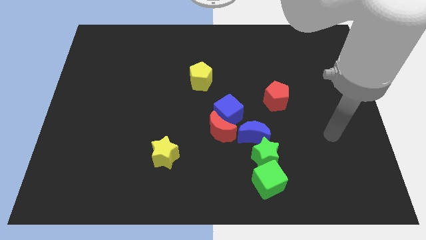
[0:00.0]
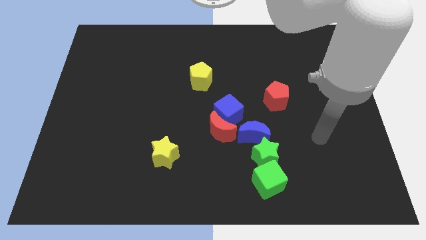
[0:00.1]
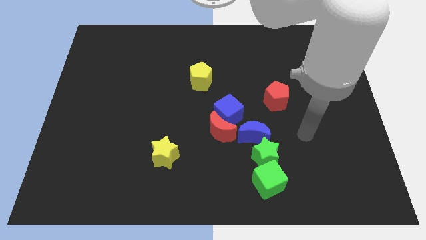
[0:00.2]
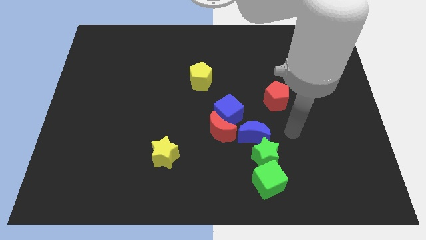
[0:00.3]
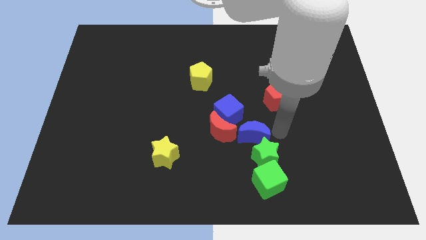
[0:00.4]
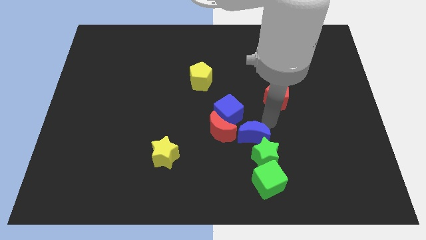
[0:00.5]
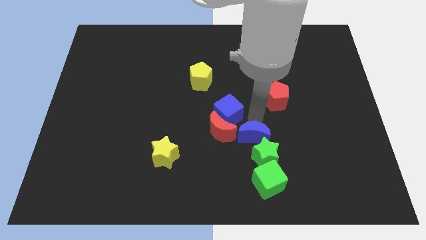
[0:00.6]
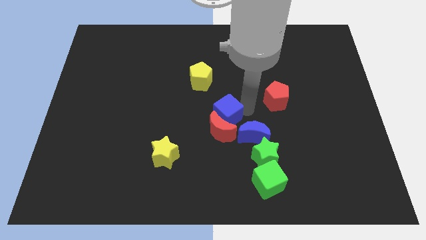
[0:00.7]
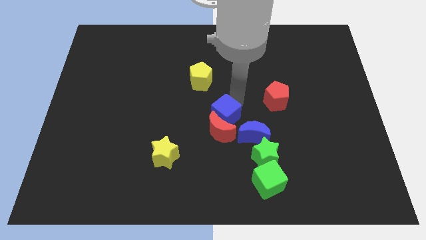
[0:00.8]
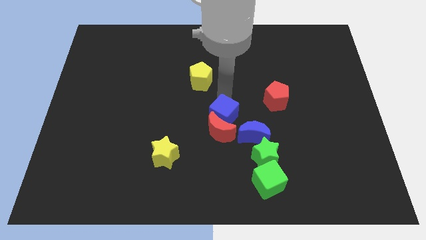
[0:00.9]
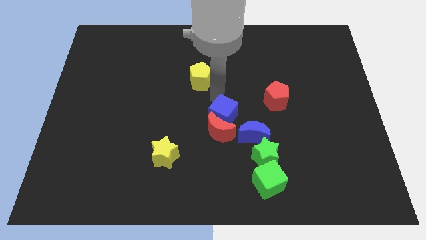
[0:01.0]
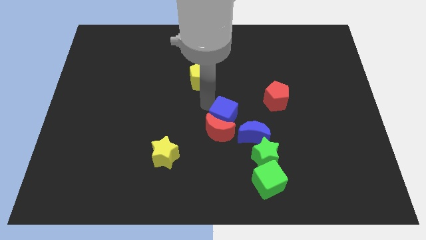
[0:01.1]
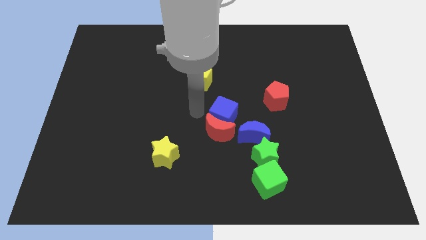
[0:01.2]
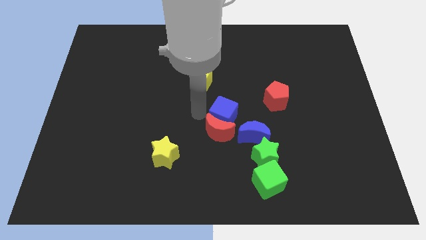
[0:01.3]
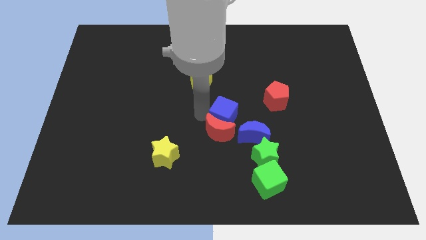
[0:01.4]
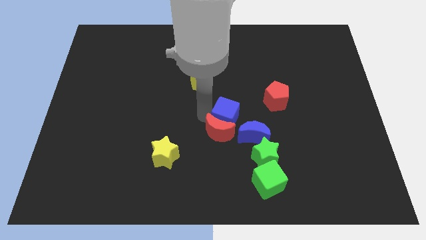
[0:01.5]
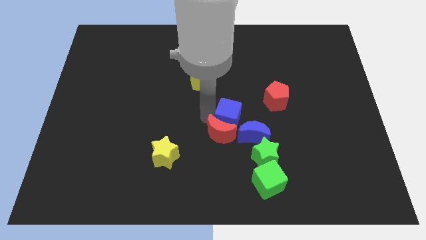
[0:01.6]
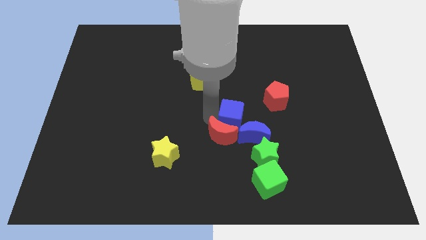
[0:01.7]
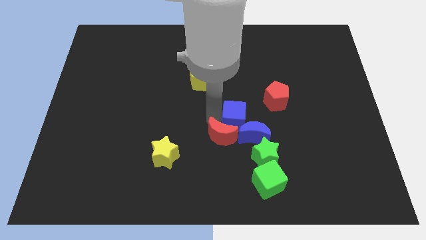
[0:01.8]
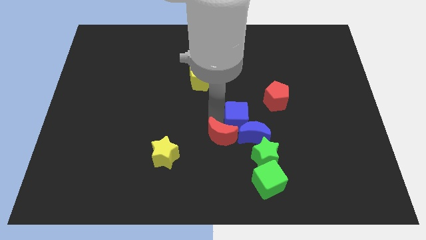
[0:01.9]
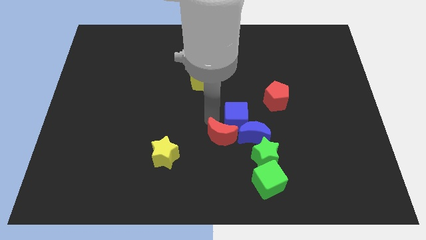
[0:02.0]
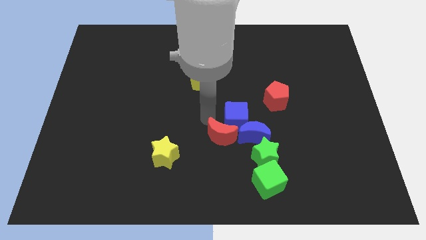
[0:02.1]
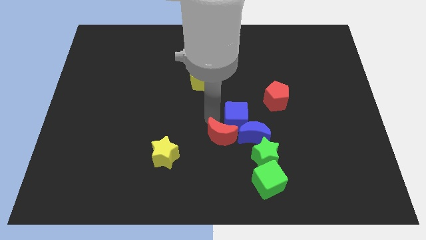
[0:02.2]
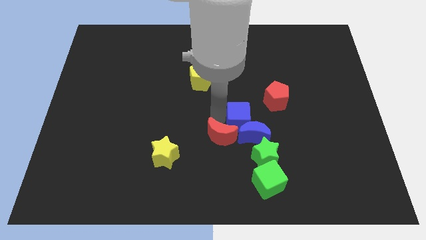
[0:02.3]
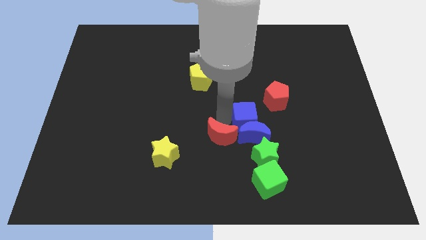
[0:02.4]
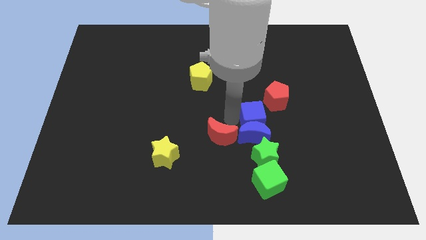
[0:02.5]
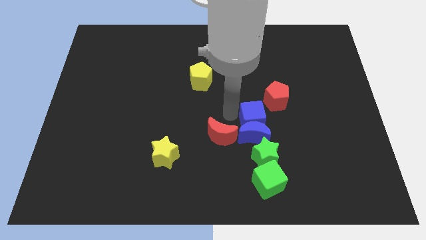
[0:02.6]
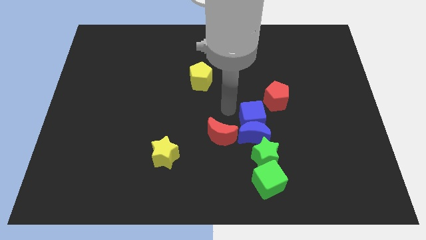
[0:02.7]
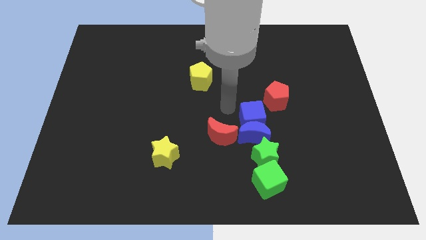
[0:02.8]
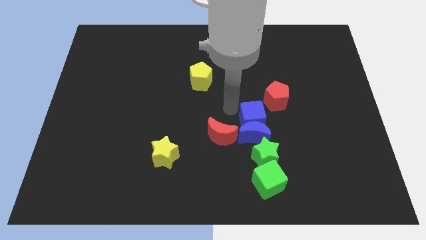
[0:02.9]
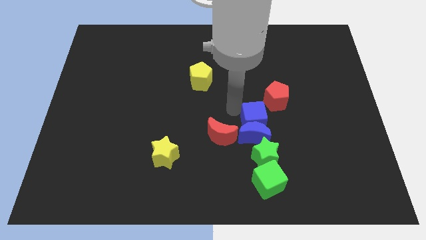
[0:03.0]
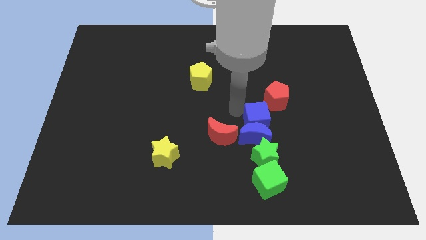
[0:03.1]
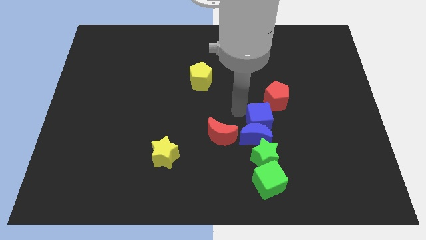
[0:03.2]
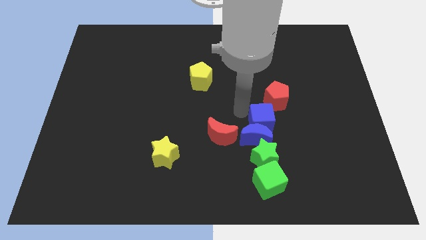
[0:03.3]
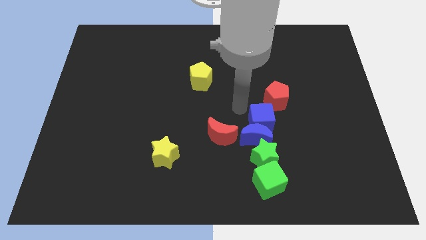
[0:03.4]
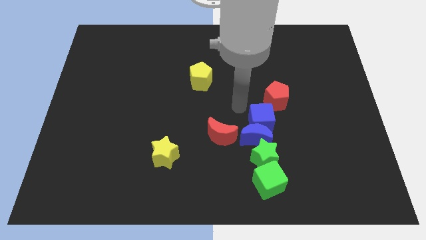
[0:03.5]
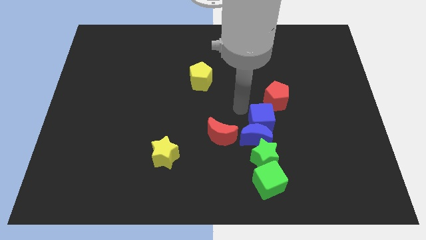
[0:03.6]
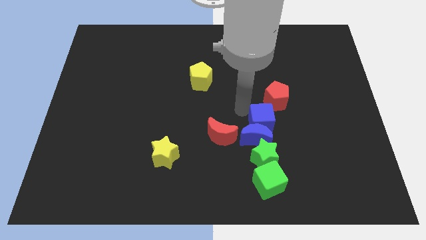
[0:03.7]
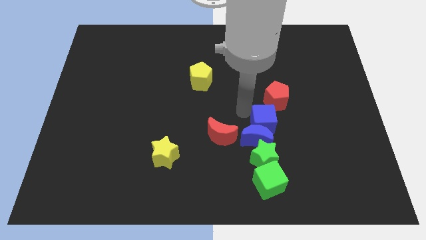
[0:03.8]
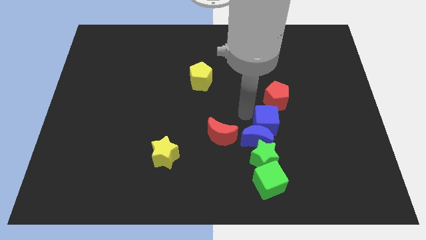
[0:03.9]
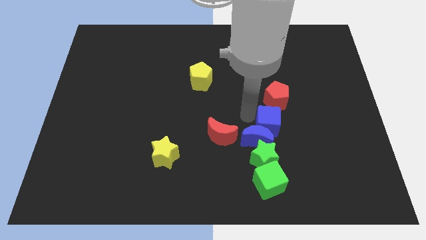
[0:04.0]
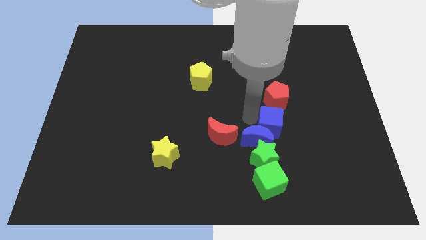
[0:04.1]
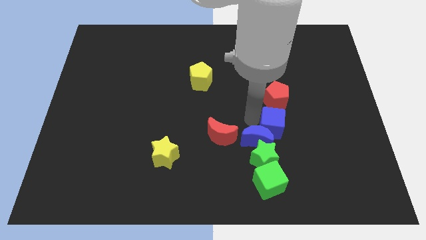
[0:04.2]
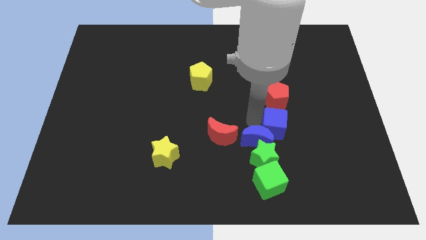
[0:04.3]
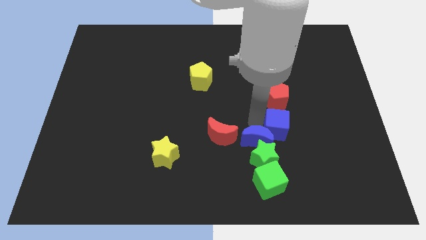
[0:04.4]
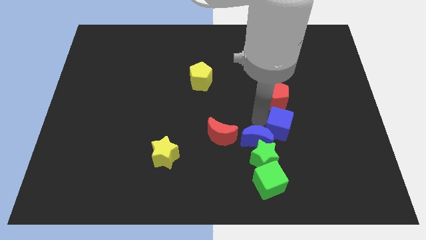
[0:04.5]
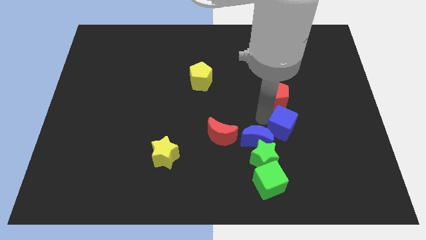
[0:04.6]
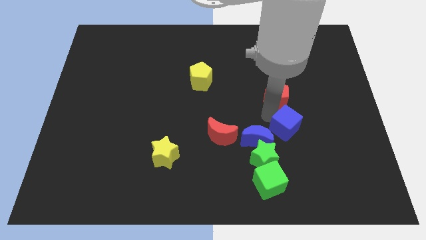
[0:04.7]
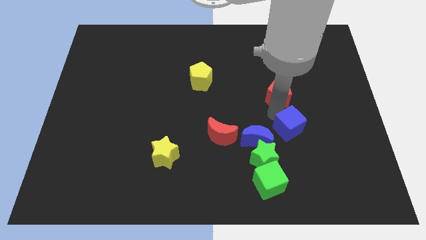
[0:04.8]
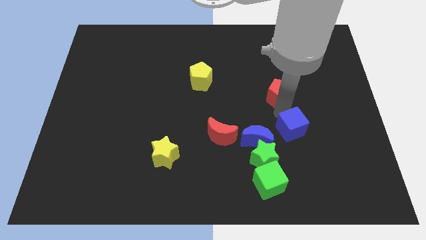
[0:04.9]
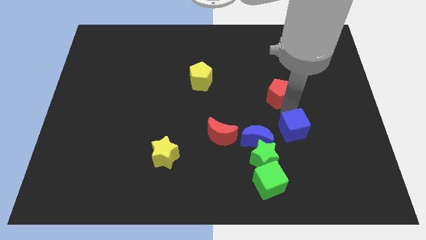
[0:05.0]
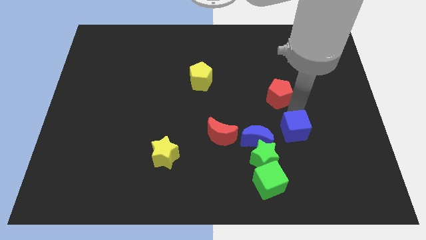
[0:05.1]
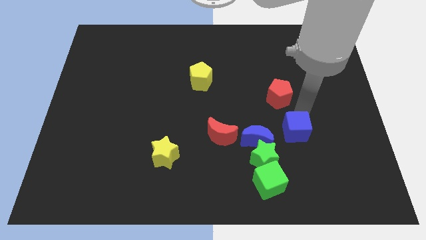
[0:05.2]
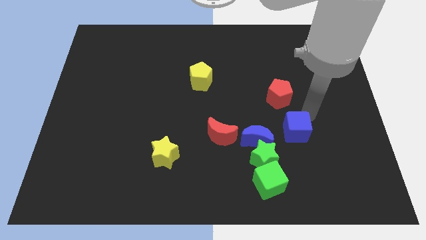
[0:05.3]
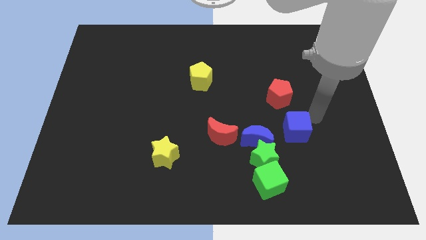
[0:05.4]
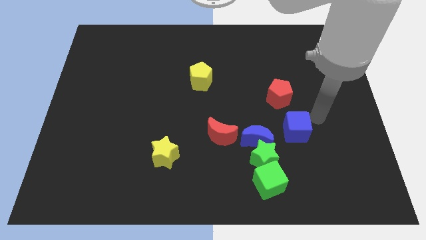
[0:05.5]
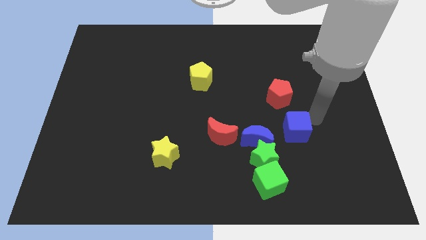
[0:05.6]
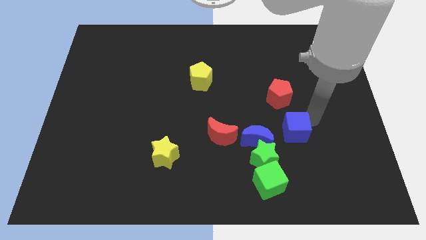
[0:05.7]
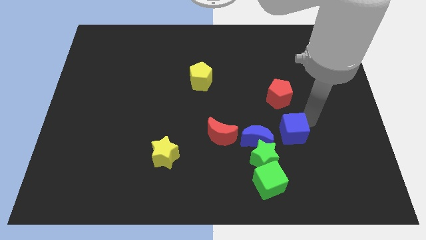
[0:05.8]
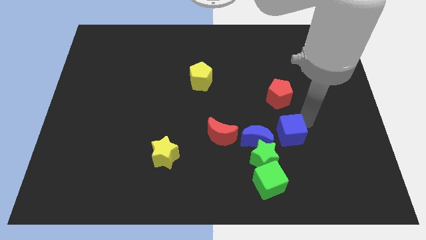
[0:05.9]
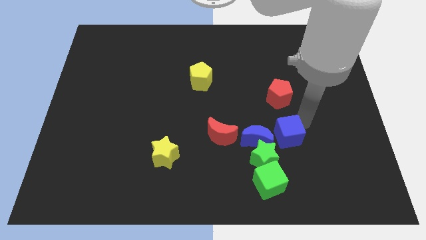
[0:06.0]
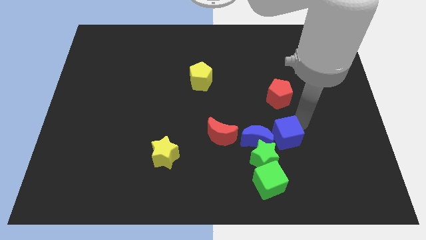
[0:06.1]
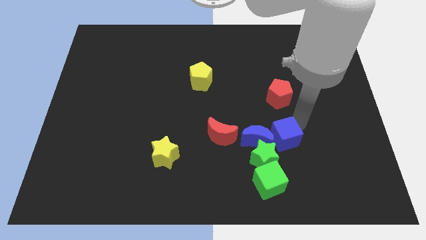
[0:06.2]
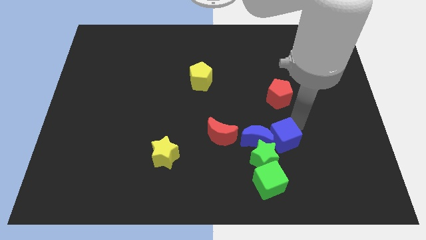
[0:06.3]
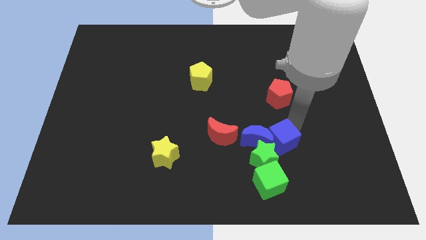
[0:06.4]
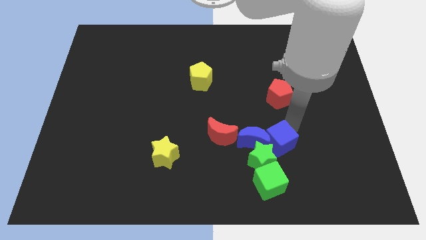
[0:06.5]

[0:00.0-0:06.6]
push the blue cube next to the green star
